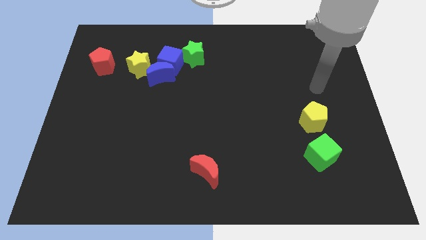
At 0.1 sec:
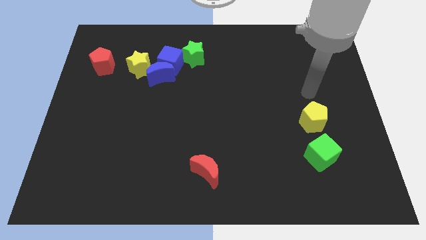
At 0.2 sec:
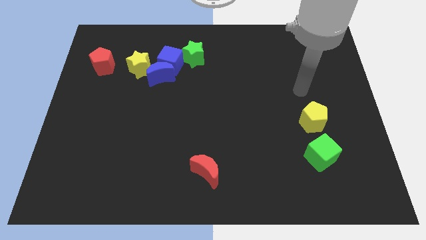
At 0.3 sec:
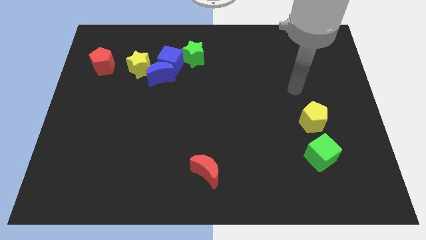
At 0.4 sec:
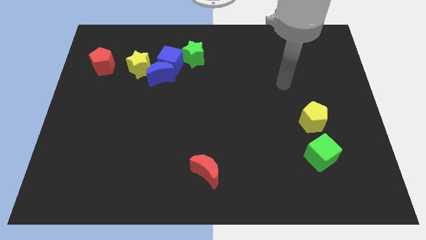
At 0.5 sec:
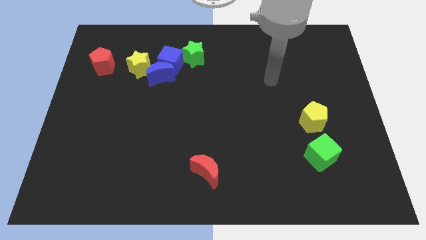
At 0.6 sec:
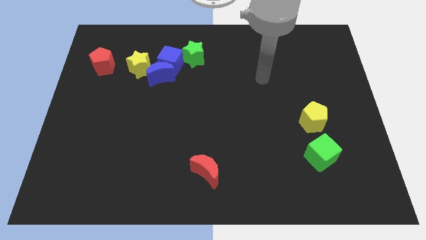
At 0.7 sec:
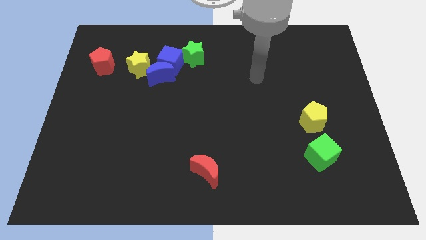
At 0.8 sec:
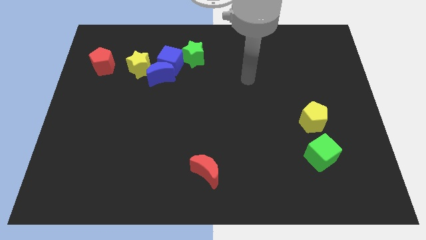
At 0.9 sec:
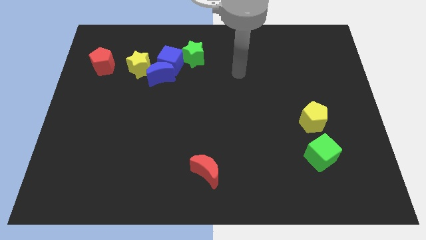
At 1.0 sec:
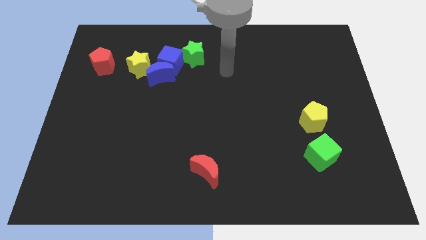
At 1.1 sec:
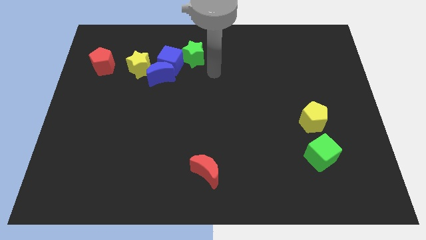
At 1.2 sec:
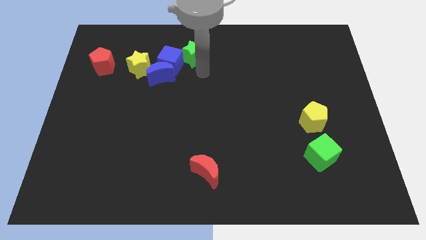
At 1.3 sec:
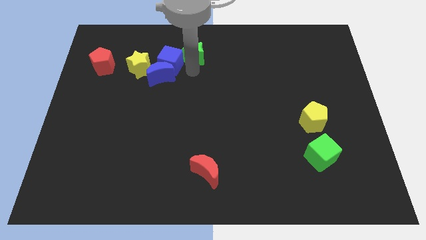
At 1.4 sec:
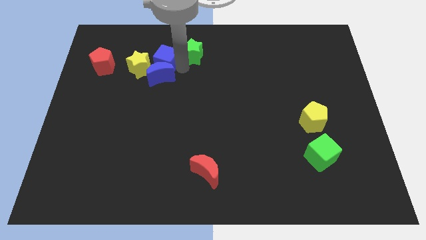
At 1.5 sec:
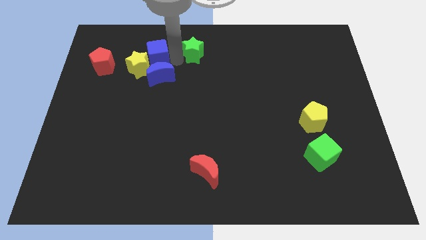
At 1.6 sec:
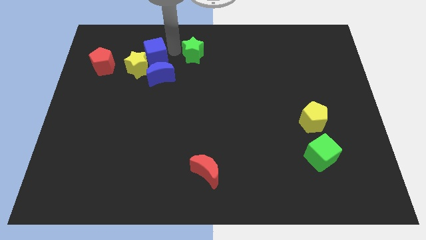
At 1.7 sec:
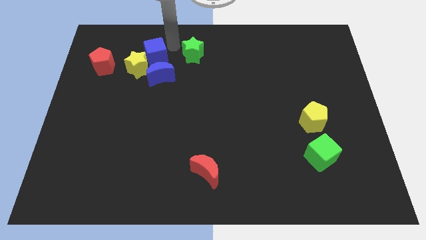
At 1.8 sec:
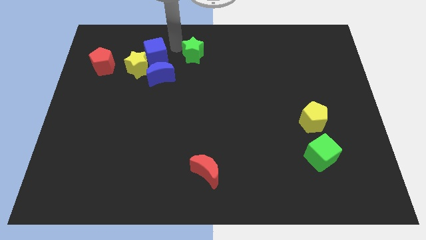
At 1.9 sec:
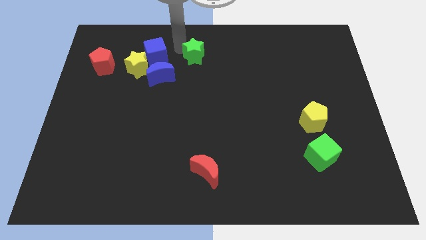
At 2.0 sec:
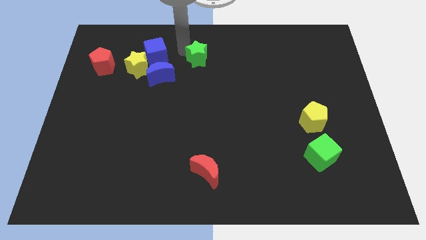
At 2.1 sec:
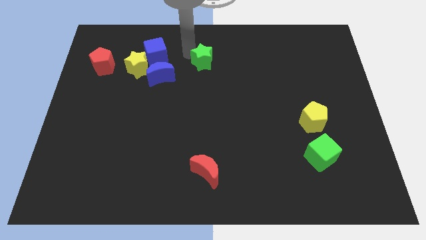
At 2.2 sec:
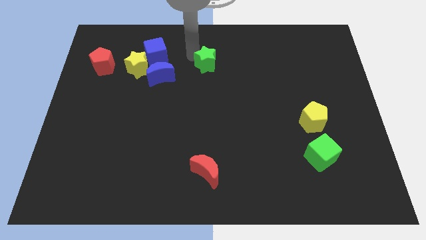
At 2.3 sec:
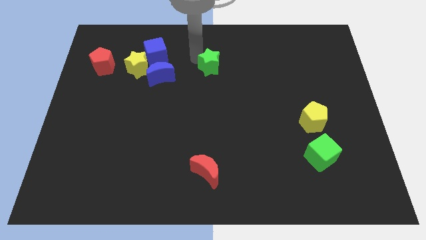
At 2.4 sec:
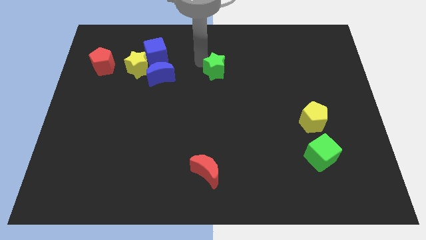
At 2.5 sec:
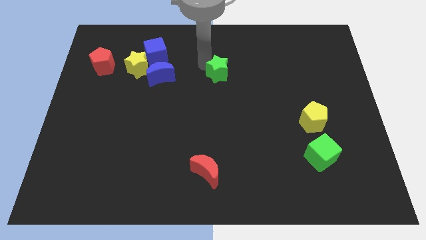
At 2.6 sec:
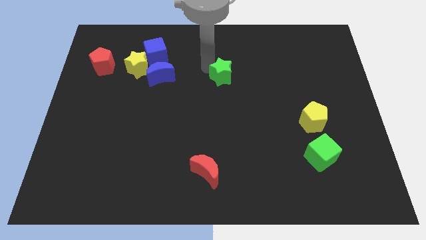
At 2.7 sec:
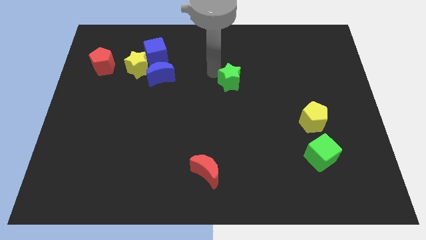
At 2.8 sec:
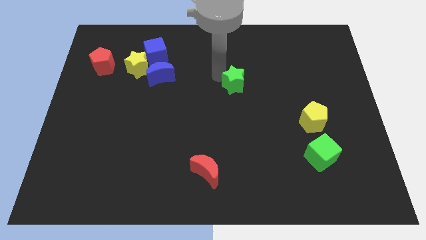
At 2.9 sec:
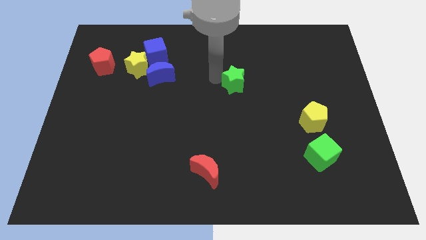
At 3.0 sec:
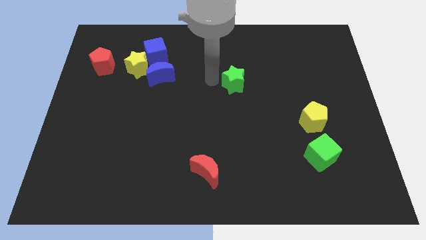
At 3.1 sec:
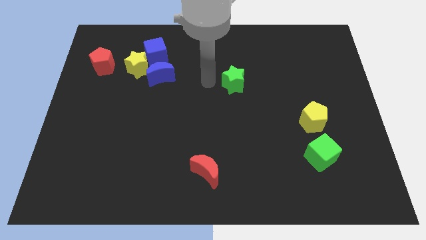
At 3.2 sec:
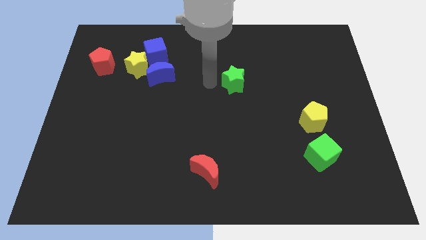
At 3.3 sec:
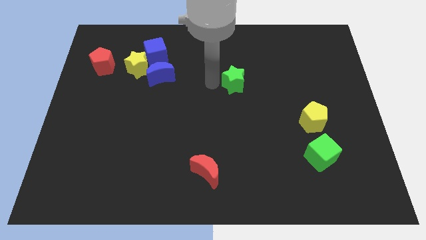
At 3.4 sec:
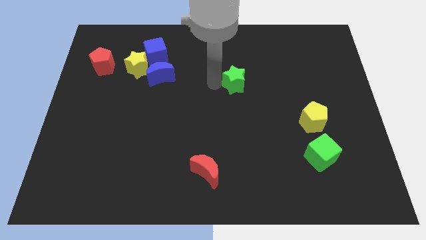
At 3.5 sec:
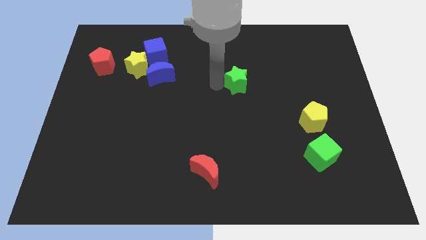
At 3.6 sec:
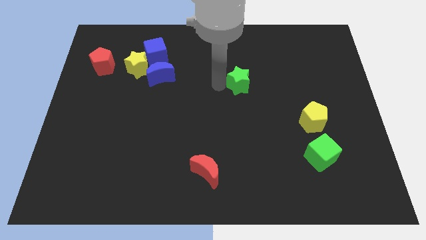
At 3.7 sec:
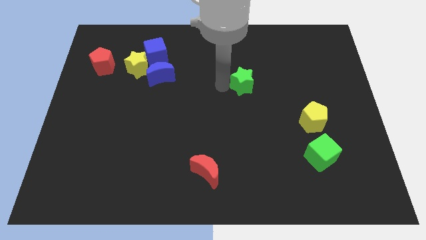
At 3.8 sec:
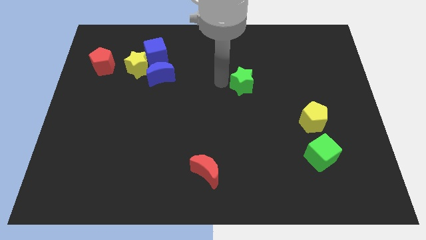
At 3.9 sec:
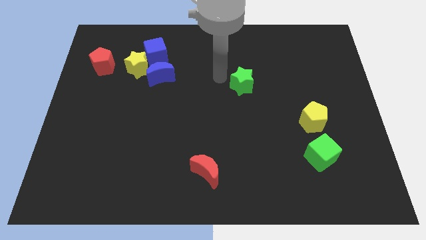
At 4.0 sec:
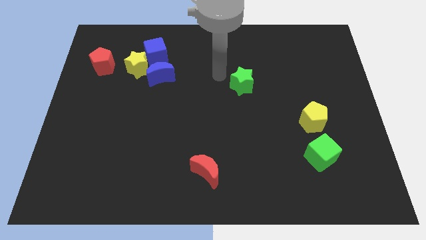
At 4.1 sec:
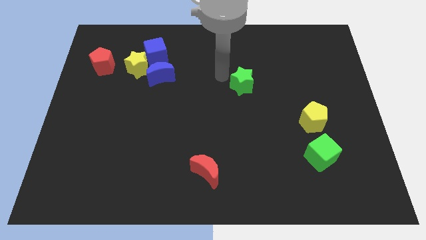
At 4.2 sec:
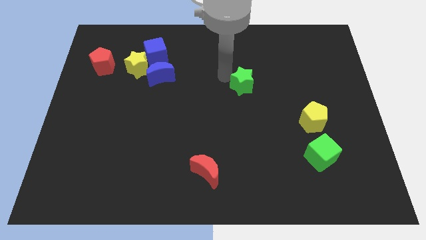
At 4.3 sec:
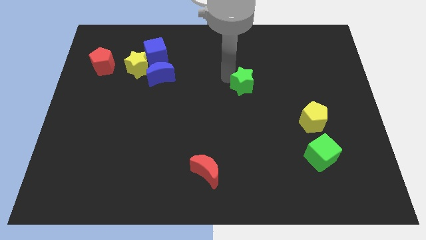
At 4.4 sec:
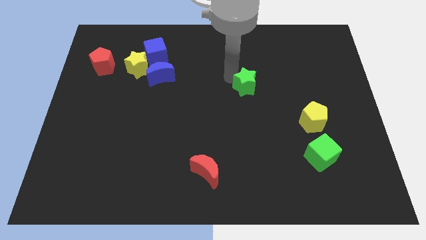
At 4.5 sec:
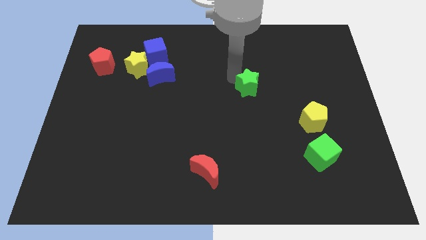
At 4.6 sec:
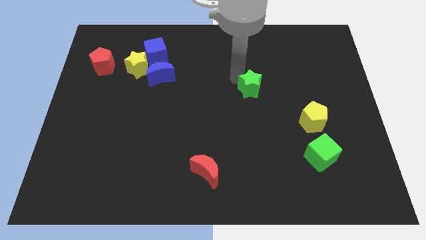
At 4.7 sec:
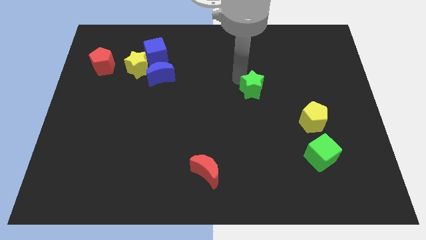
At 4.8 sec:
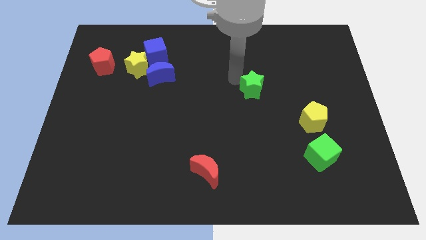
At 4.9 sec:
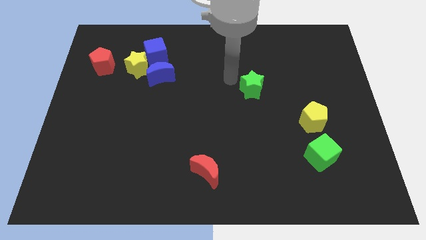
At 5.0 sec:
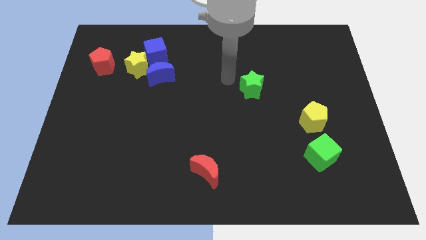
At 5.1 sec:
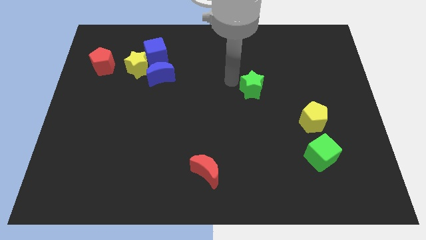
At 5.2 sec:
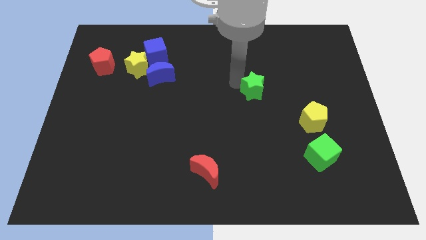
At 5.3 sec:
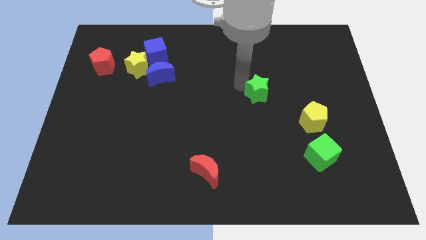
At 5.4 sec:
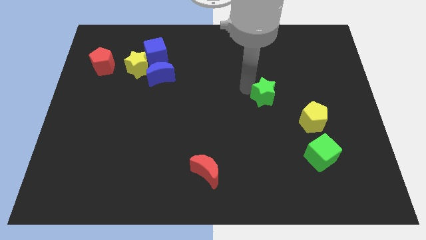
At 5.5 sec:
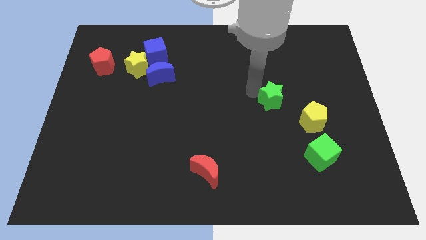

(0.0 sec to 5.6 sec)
move the green star to the top left of the yellow pentagon

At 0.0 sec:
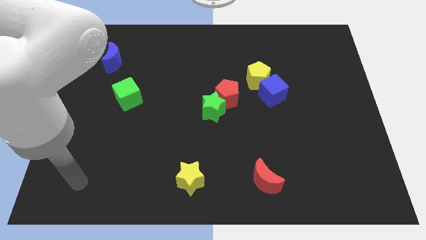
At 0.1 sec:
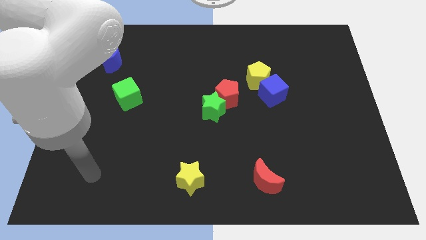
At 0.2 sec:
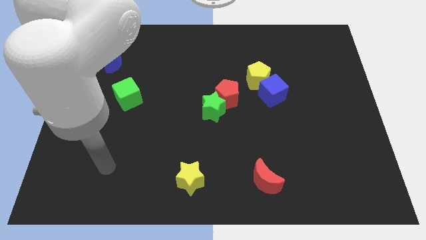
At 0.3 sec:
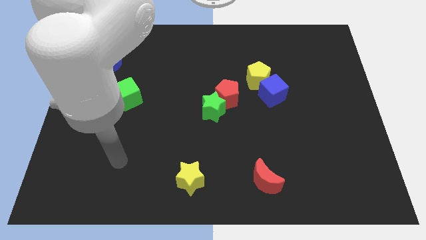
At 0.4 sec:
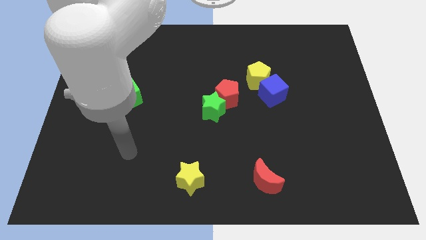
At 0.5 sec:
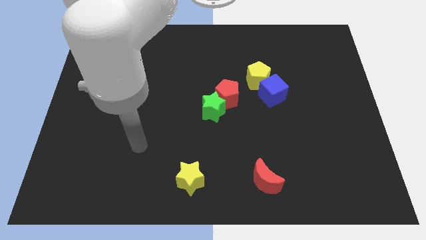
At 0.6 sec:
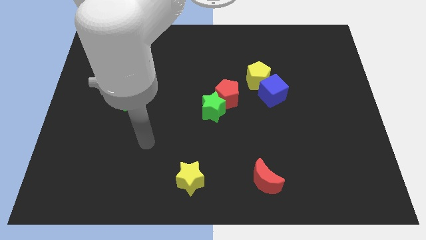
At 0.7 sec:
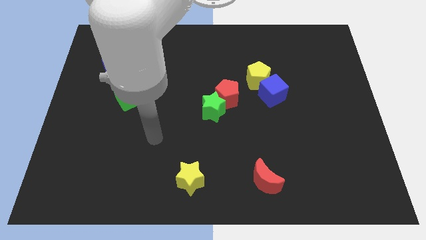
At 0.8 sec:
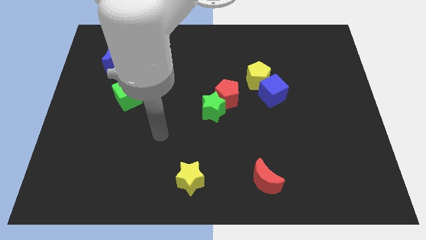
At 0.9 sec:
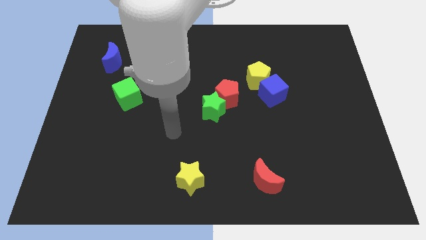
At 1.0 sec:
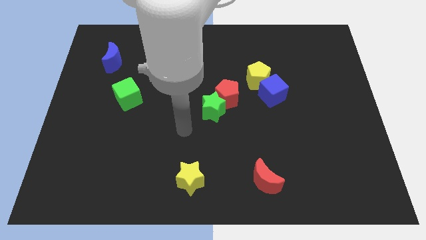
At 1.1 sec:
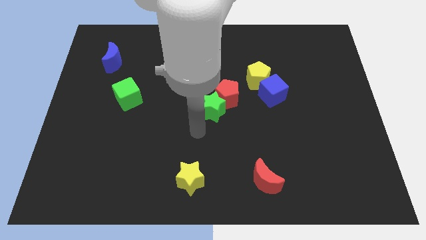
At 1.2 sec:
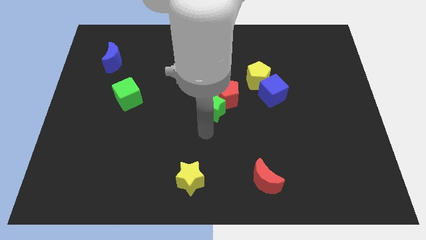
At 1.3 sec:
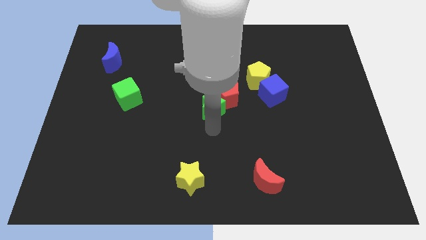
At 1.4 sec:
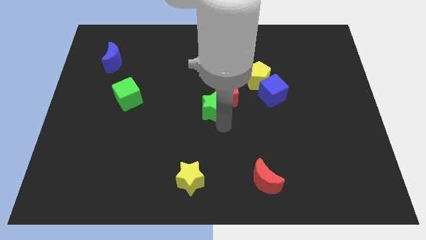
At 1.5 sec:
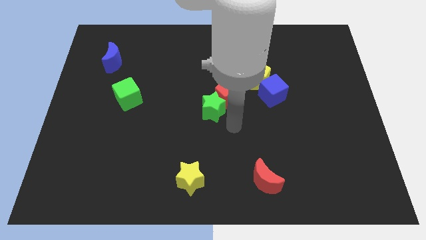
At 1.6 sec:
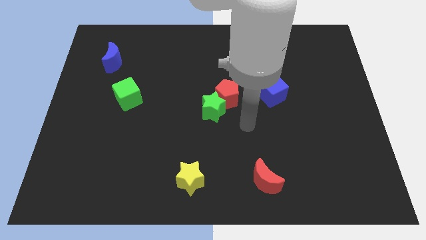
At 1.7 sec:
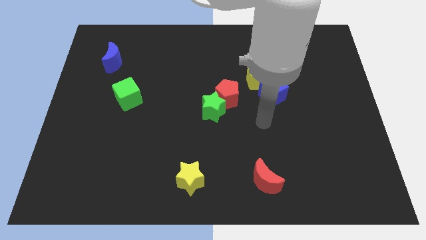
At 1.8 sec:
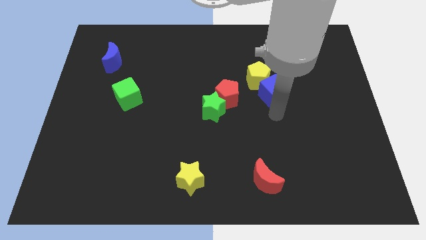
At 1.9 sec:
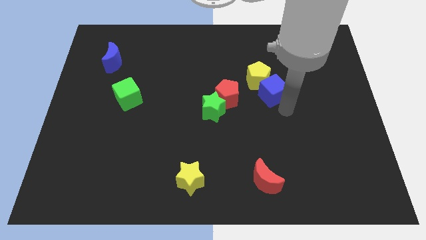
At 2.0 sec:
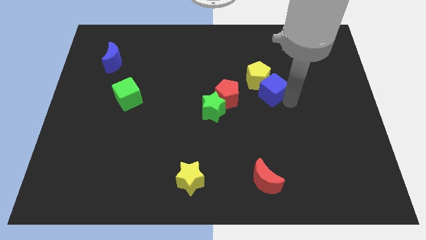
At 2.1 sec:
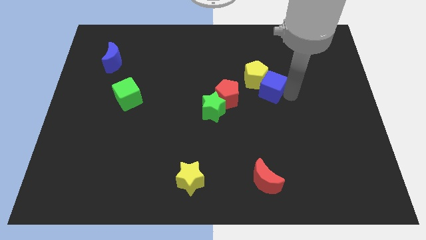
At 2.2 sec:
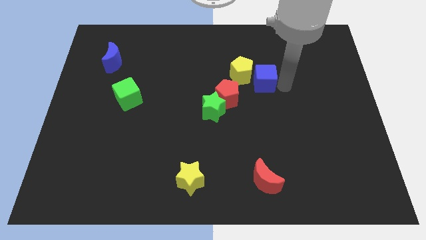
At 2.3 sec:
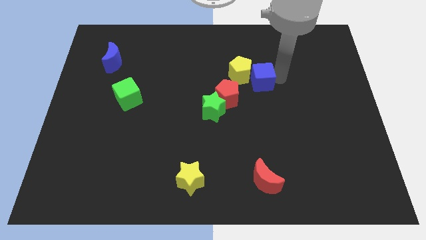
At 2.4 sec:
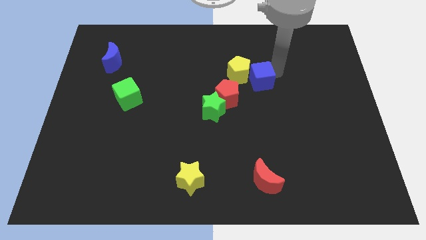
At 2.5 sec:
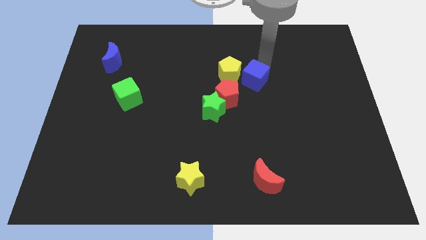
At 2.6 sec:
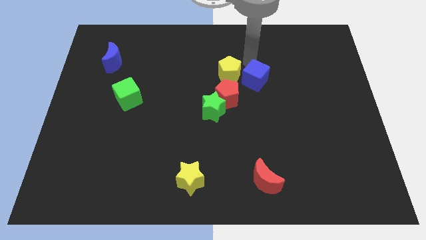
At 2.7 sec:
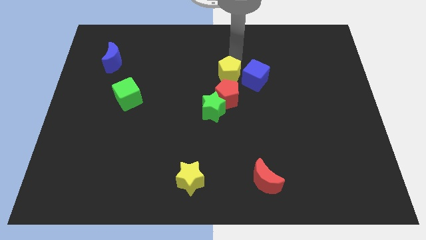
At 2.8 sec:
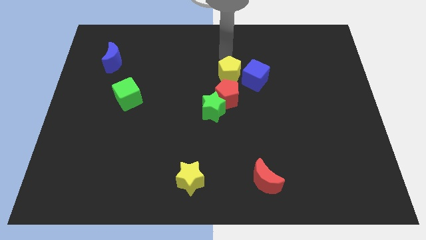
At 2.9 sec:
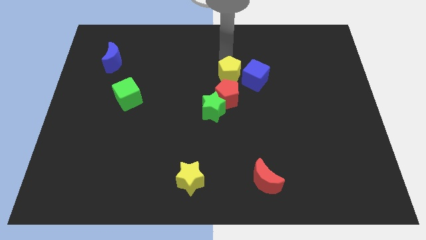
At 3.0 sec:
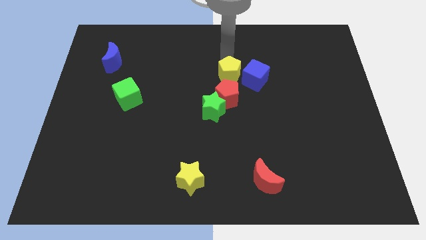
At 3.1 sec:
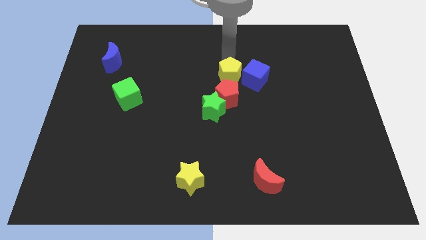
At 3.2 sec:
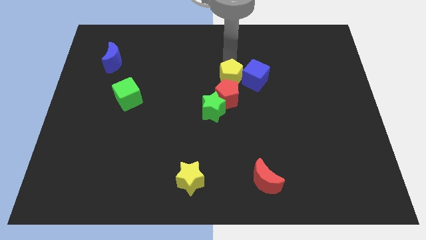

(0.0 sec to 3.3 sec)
push the yellow pentagon diagonally up and to the right of the green star

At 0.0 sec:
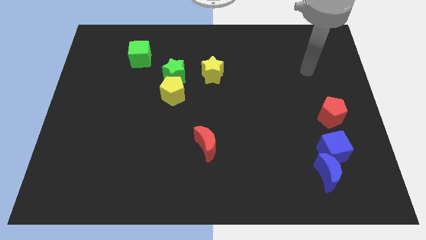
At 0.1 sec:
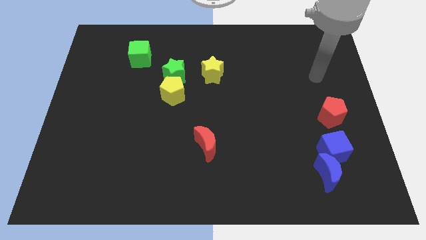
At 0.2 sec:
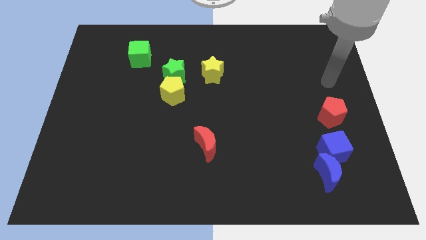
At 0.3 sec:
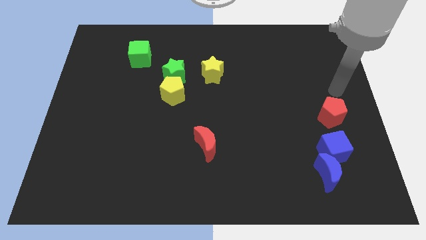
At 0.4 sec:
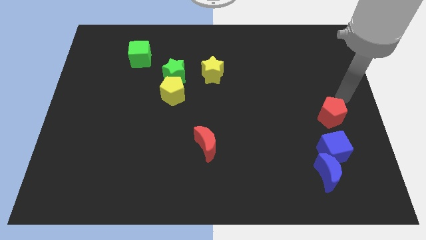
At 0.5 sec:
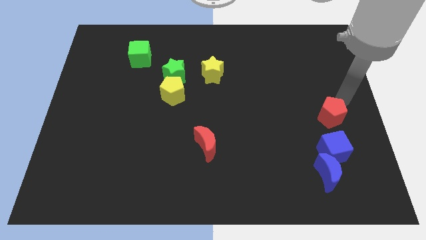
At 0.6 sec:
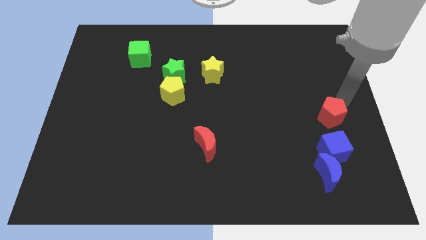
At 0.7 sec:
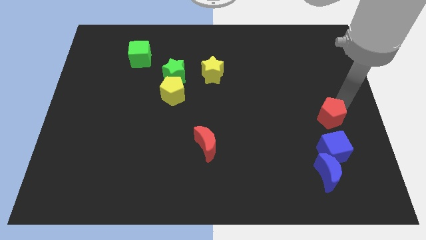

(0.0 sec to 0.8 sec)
put the red pentagon to the top side of the blue moon
